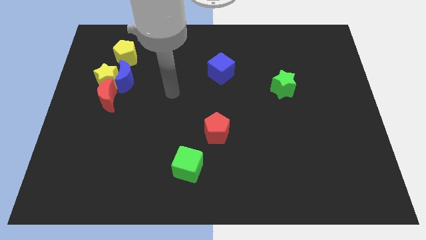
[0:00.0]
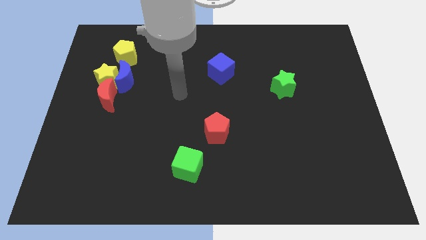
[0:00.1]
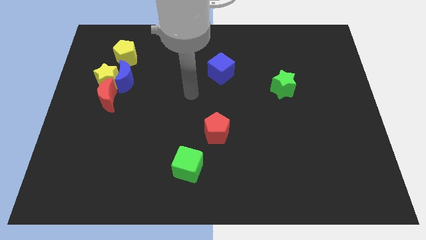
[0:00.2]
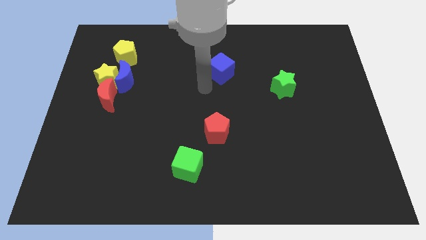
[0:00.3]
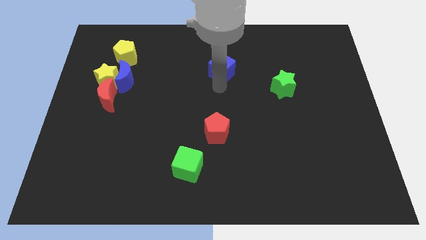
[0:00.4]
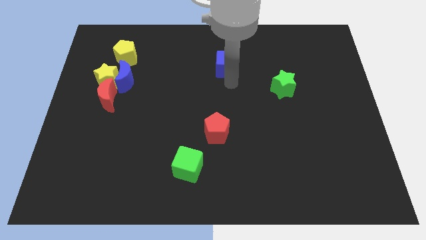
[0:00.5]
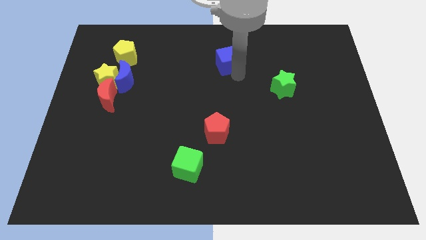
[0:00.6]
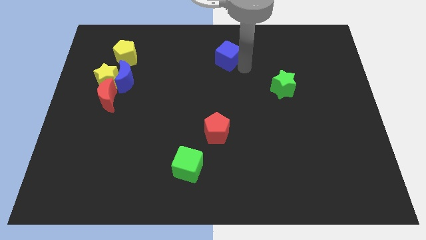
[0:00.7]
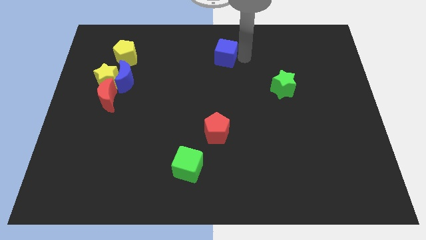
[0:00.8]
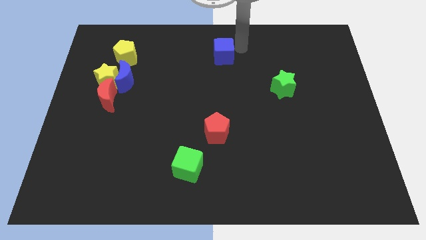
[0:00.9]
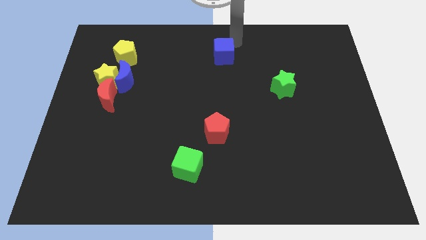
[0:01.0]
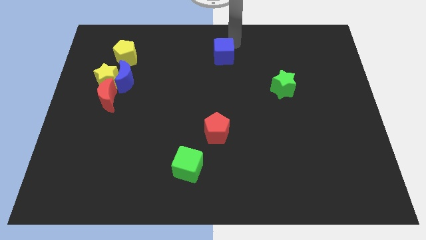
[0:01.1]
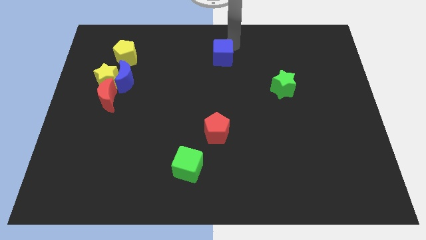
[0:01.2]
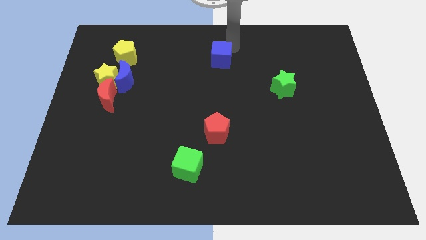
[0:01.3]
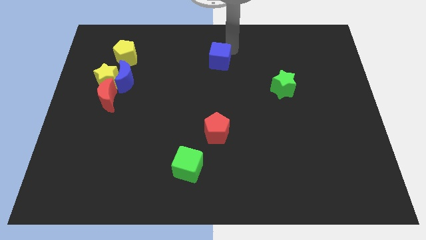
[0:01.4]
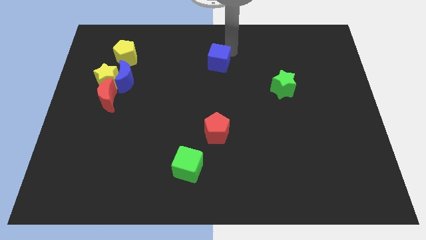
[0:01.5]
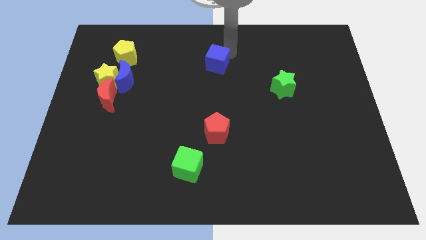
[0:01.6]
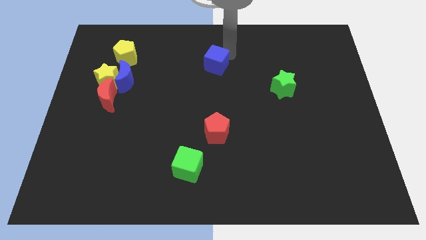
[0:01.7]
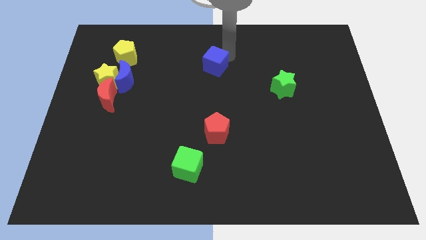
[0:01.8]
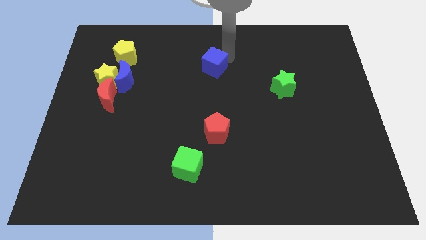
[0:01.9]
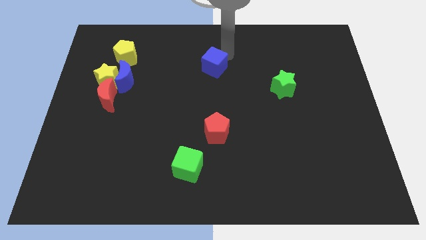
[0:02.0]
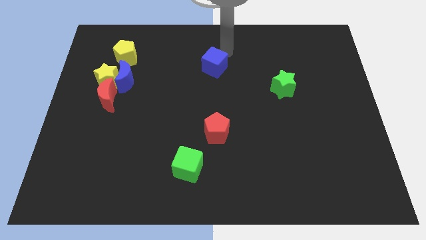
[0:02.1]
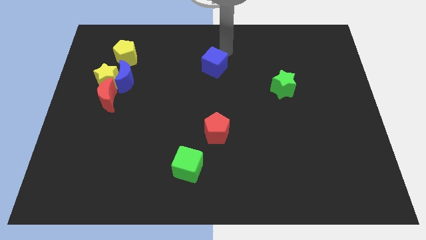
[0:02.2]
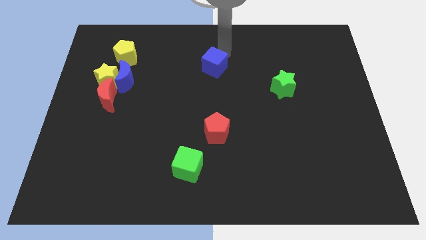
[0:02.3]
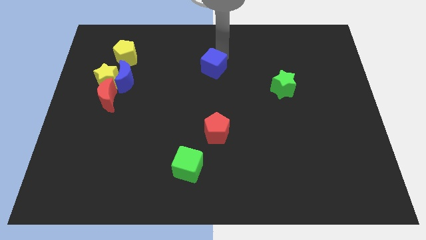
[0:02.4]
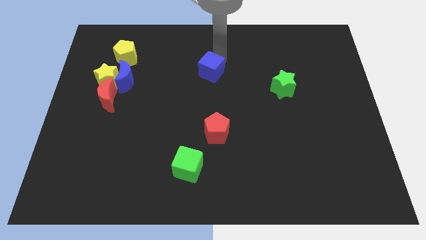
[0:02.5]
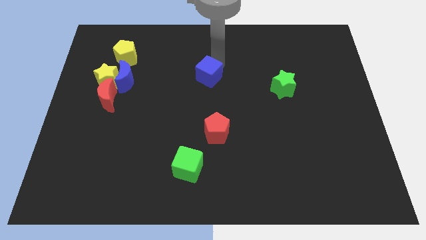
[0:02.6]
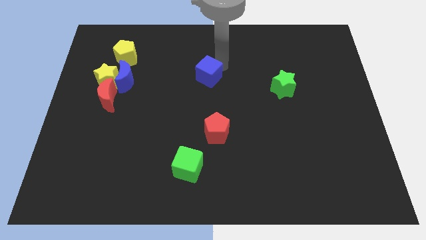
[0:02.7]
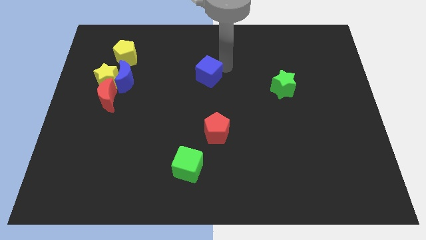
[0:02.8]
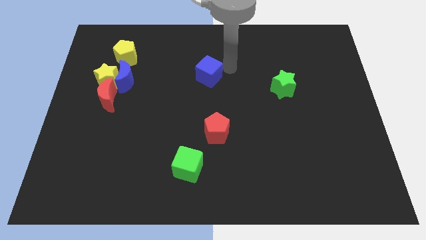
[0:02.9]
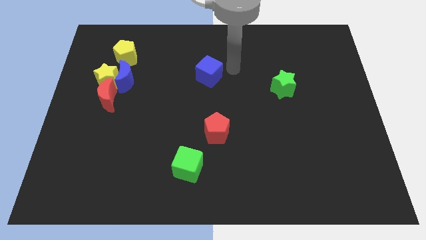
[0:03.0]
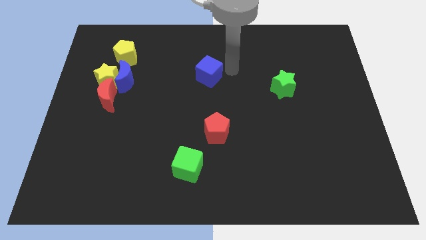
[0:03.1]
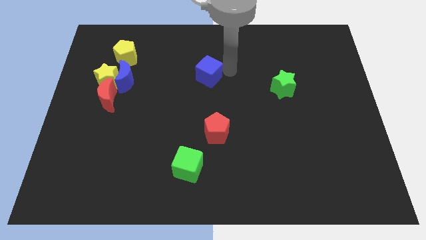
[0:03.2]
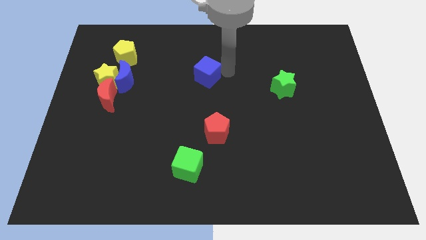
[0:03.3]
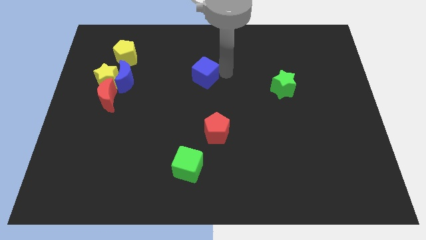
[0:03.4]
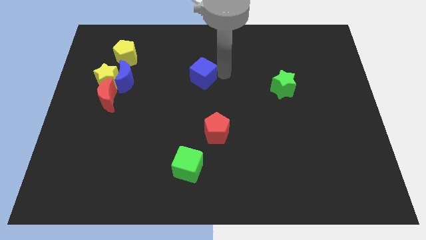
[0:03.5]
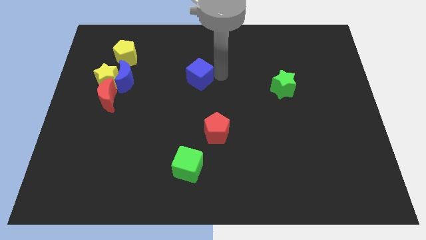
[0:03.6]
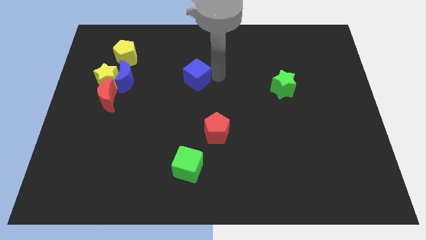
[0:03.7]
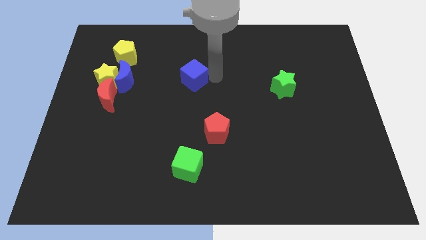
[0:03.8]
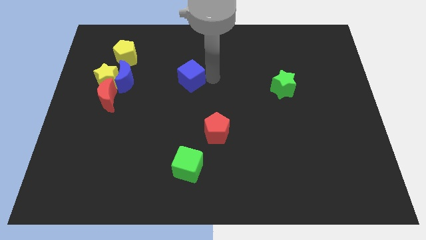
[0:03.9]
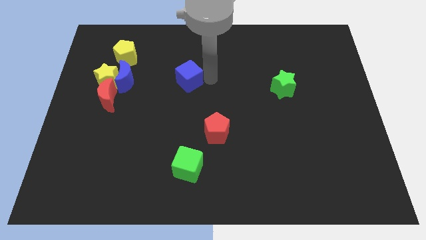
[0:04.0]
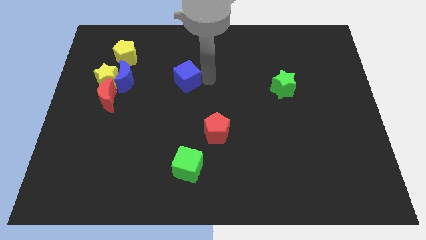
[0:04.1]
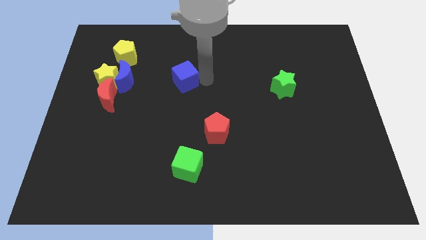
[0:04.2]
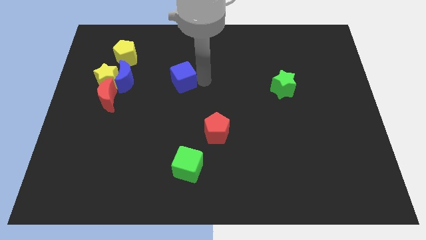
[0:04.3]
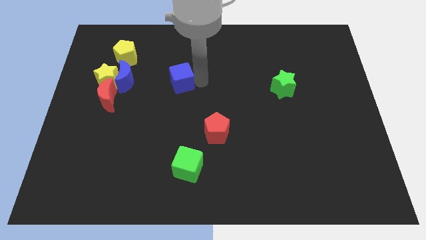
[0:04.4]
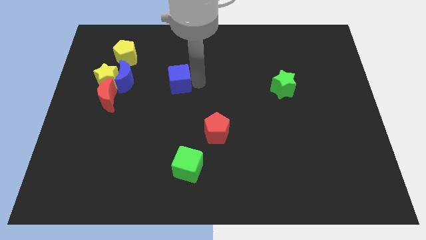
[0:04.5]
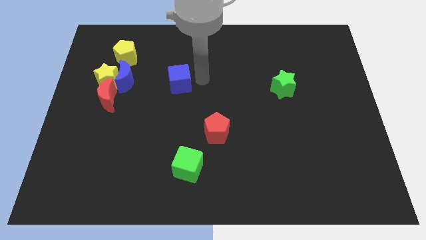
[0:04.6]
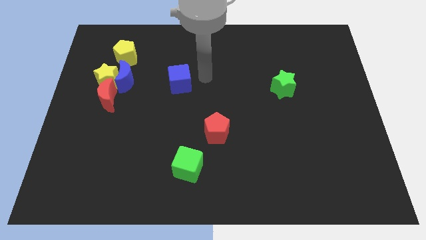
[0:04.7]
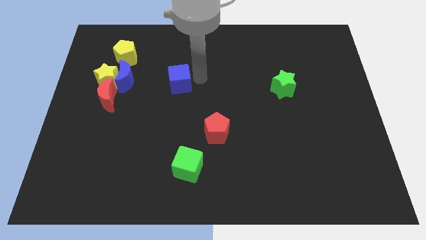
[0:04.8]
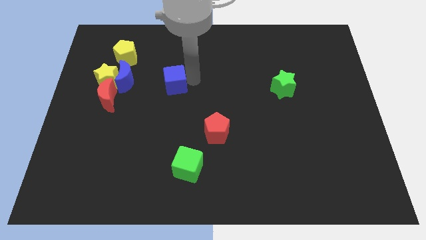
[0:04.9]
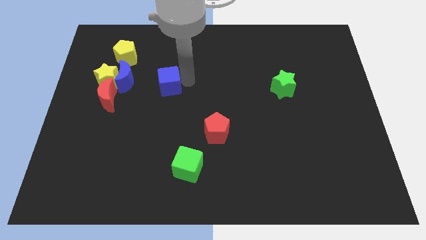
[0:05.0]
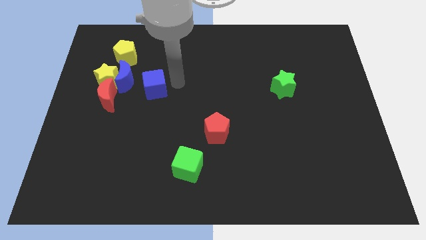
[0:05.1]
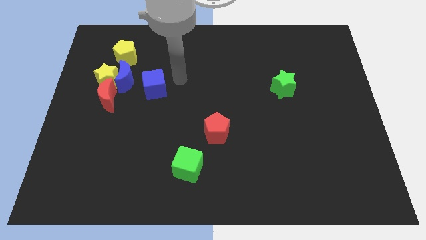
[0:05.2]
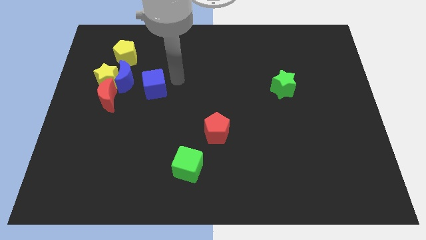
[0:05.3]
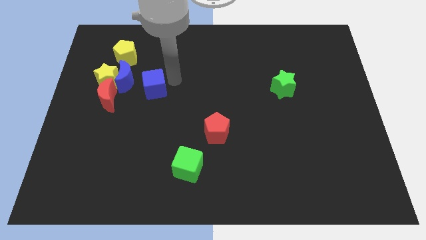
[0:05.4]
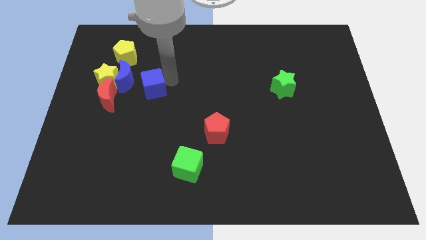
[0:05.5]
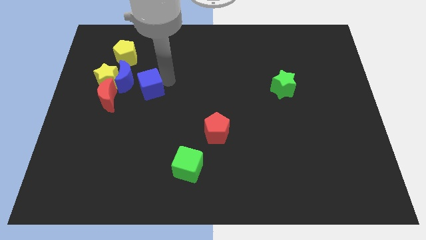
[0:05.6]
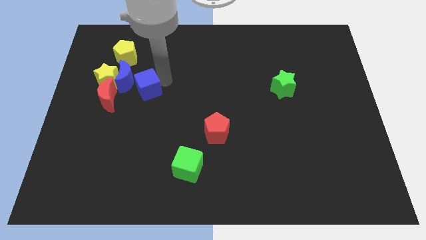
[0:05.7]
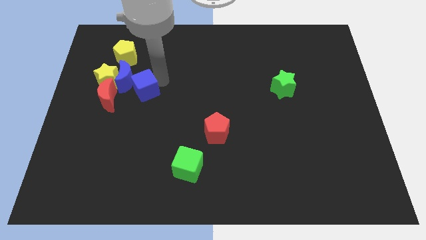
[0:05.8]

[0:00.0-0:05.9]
put the blue cube to the bottom right side of the yellow star
